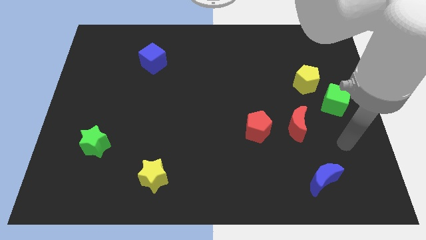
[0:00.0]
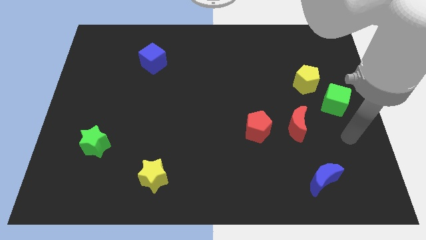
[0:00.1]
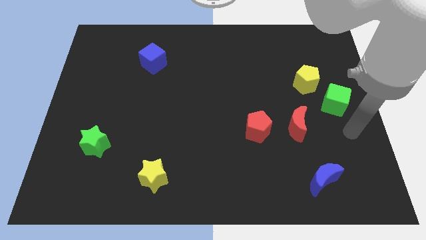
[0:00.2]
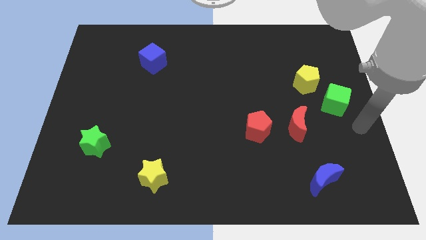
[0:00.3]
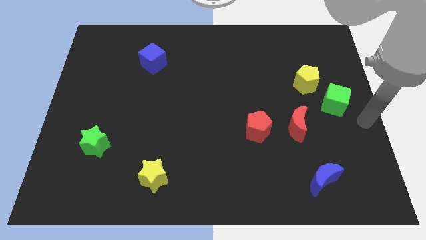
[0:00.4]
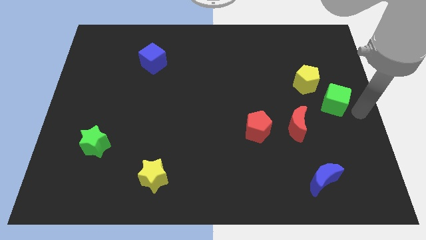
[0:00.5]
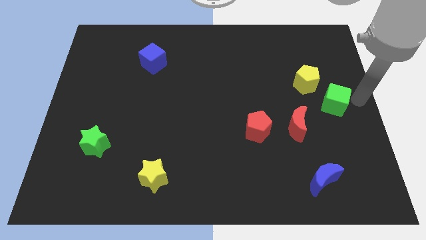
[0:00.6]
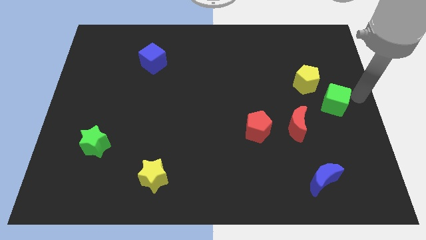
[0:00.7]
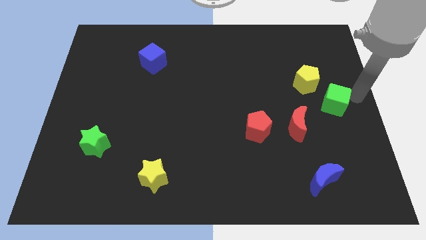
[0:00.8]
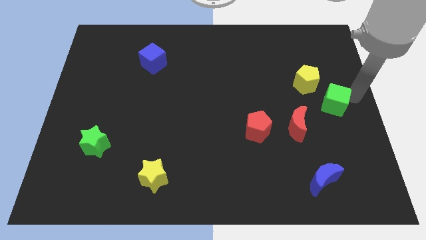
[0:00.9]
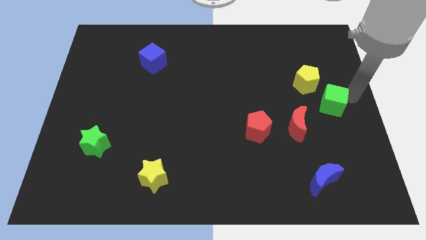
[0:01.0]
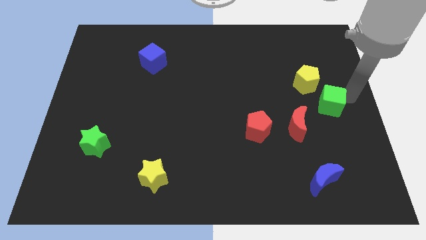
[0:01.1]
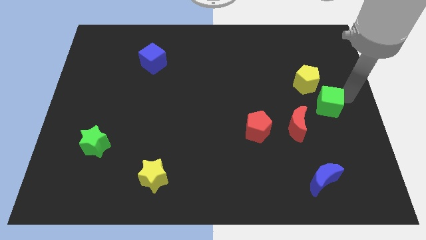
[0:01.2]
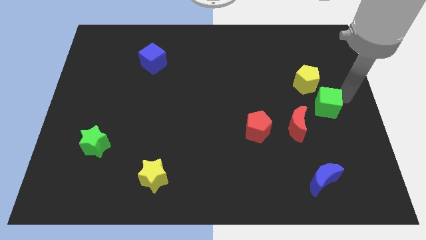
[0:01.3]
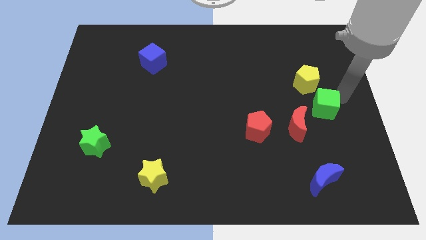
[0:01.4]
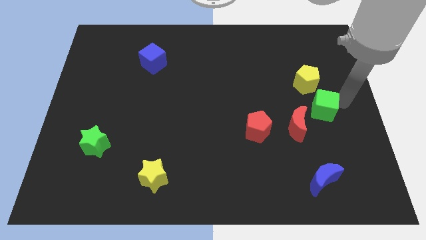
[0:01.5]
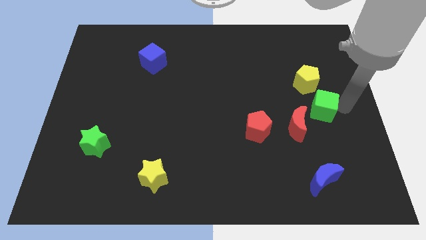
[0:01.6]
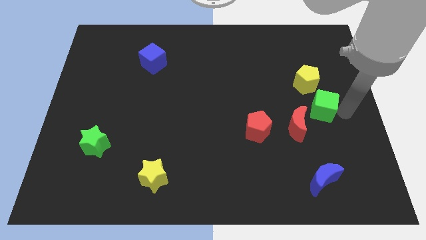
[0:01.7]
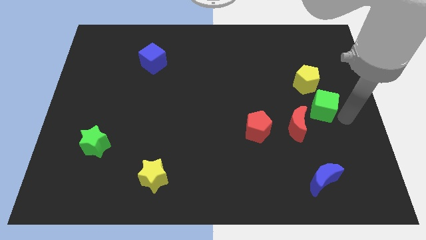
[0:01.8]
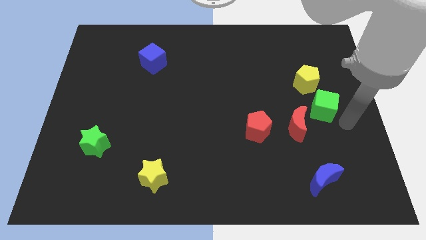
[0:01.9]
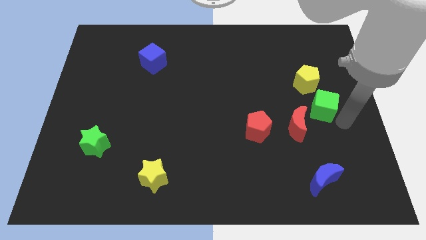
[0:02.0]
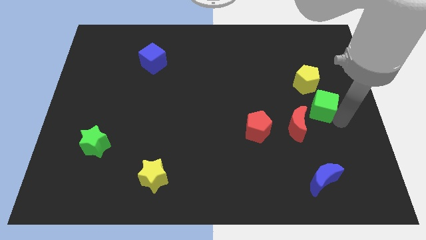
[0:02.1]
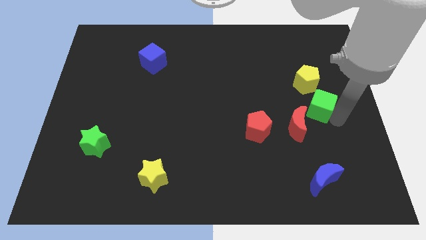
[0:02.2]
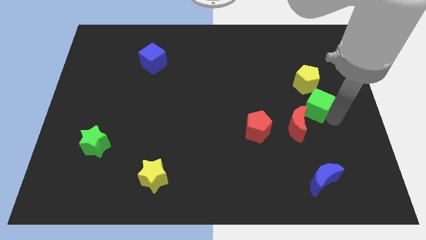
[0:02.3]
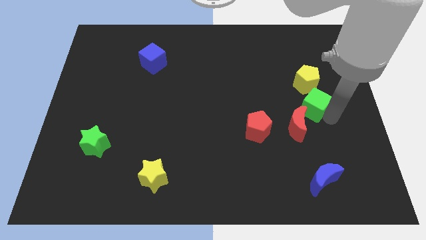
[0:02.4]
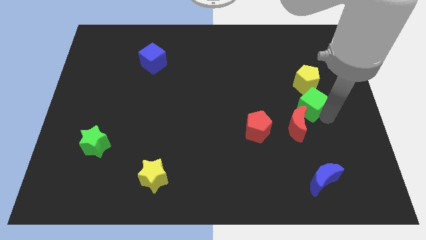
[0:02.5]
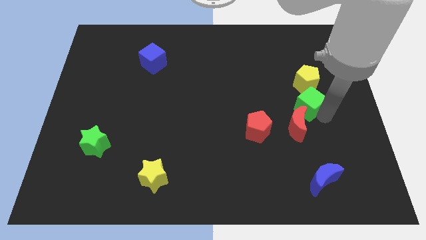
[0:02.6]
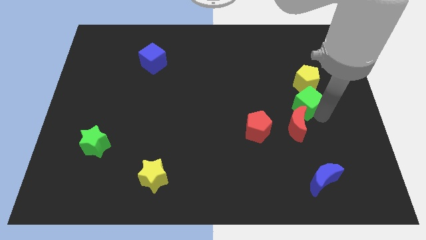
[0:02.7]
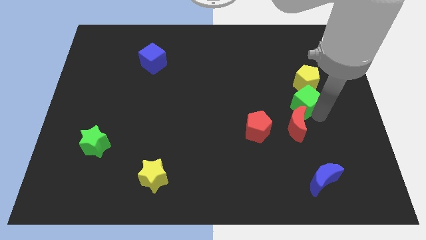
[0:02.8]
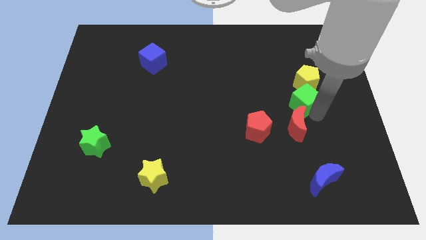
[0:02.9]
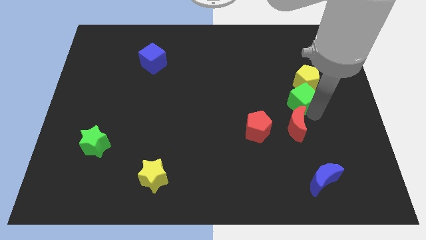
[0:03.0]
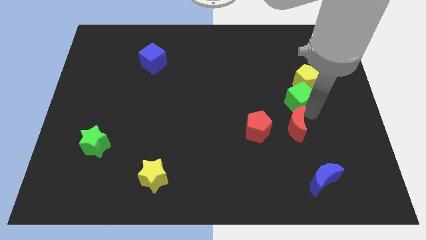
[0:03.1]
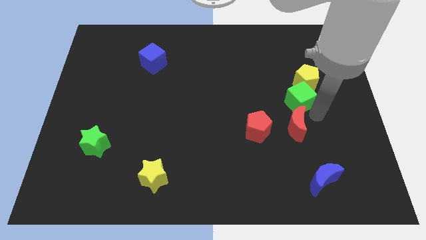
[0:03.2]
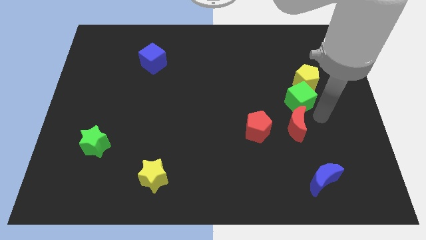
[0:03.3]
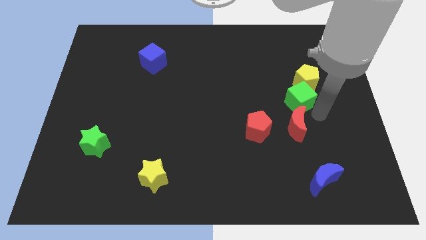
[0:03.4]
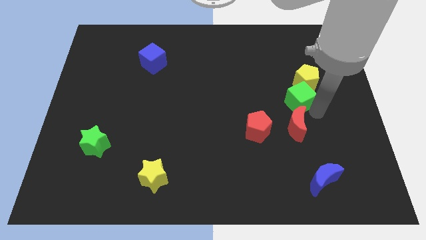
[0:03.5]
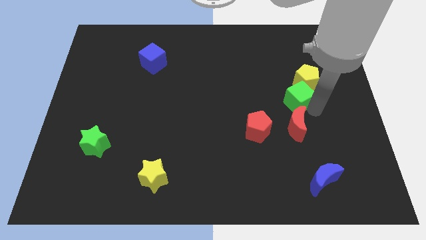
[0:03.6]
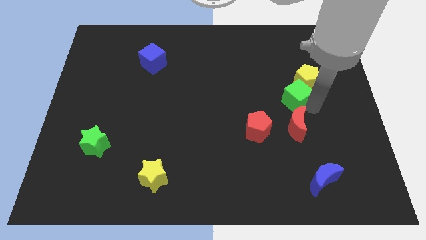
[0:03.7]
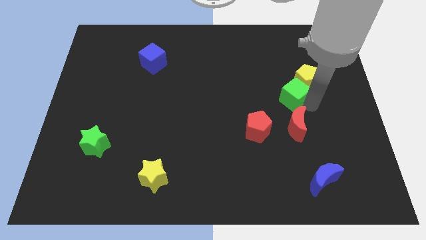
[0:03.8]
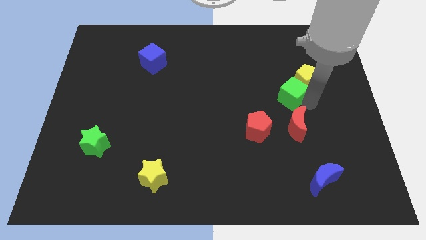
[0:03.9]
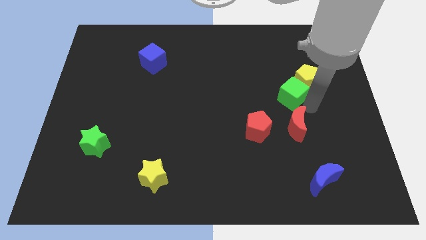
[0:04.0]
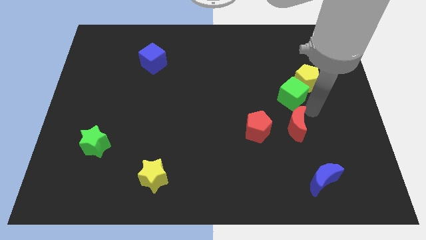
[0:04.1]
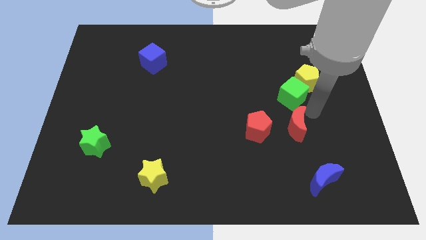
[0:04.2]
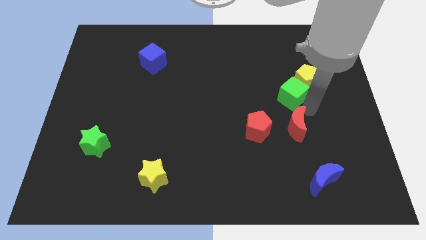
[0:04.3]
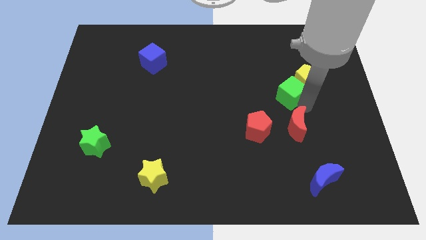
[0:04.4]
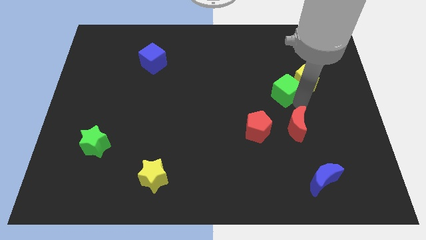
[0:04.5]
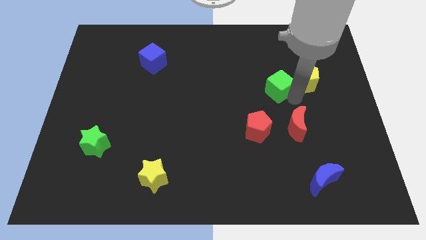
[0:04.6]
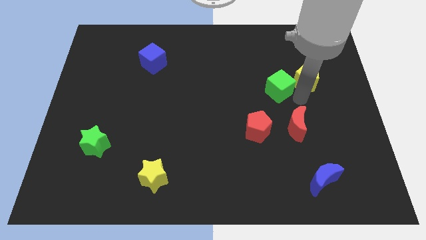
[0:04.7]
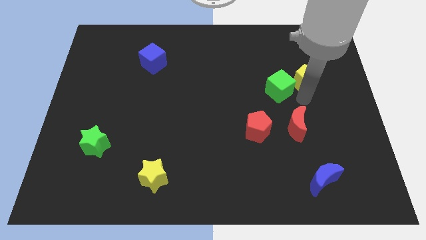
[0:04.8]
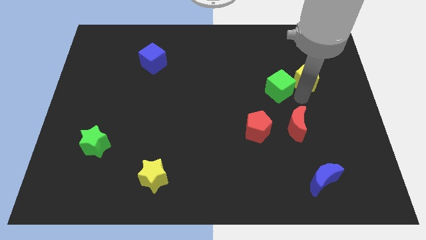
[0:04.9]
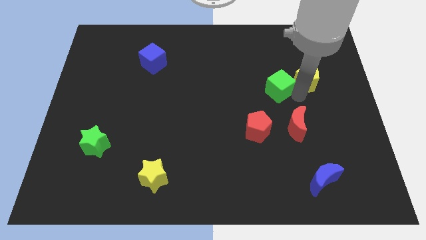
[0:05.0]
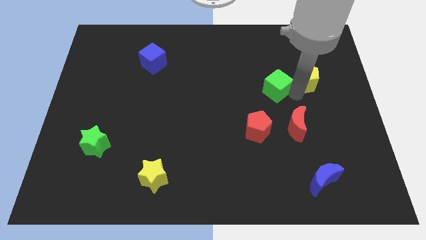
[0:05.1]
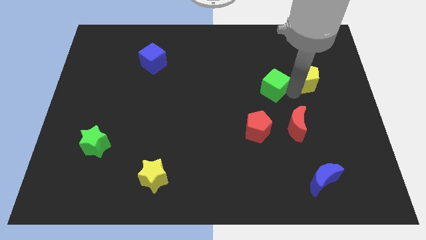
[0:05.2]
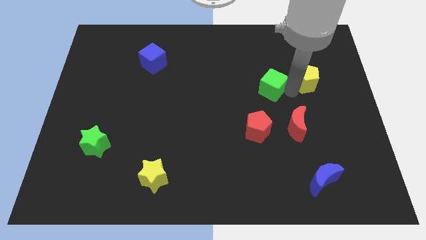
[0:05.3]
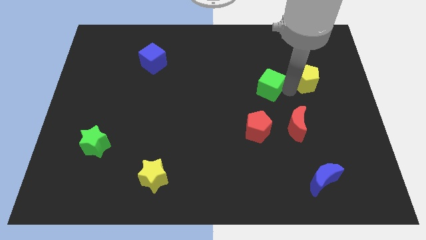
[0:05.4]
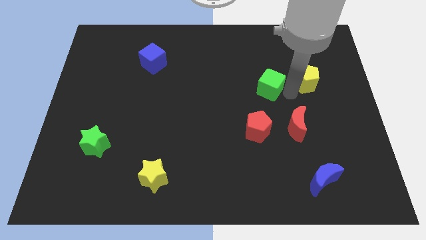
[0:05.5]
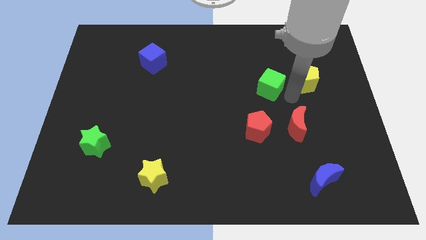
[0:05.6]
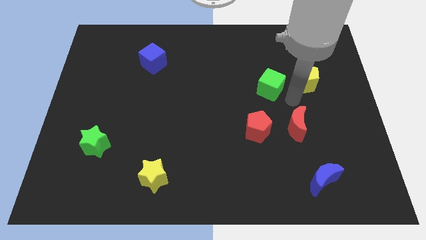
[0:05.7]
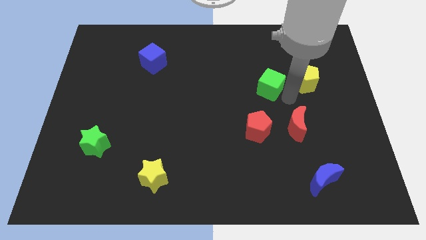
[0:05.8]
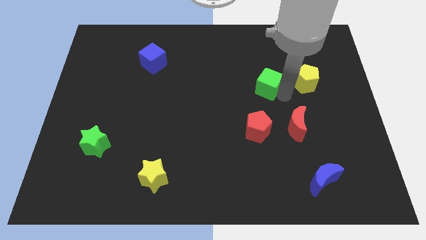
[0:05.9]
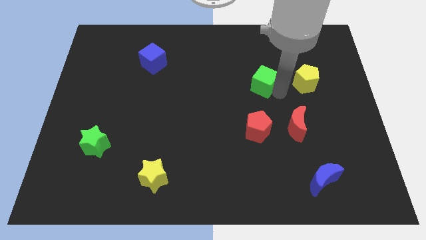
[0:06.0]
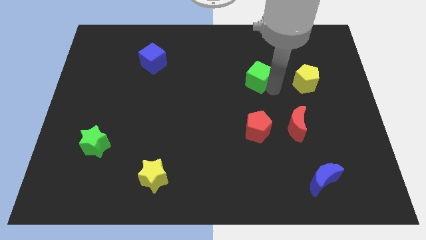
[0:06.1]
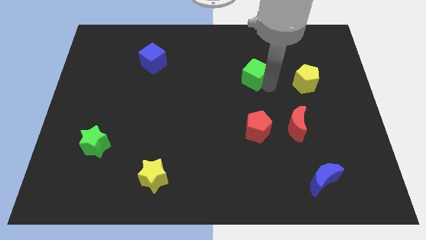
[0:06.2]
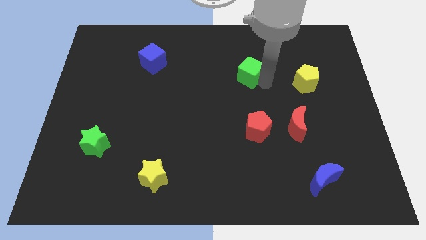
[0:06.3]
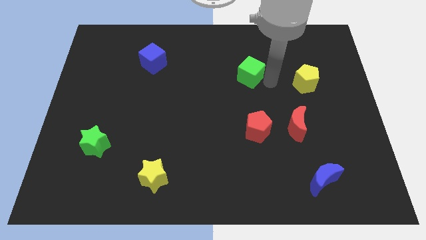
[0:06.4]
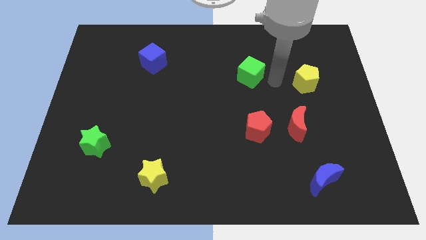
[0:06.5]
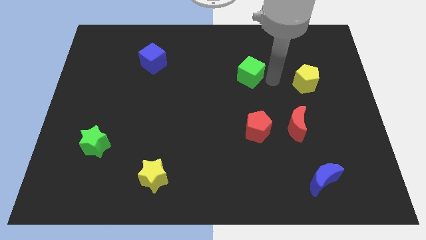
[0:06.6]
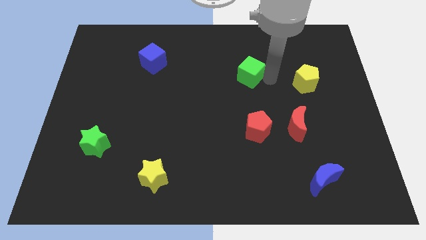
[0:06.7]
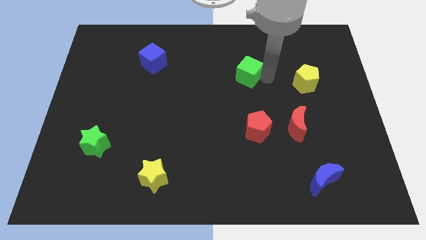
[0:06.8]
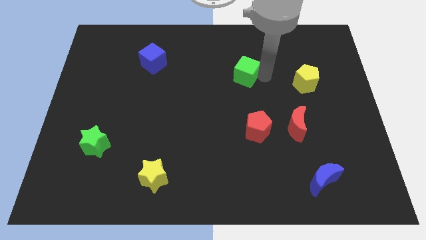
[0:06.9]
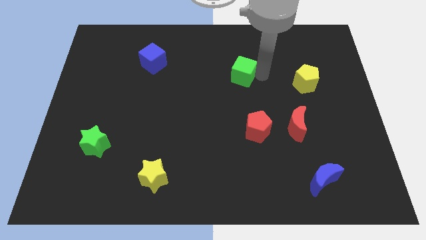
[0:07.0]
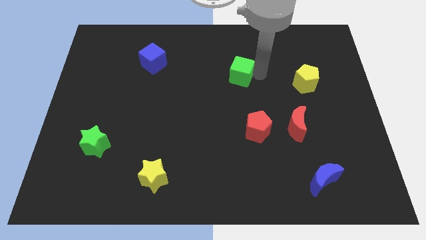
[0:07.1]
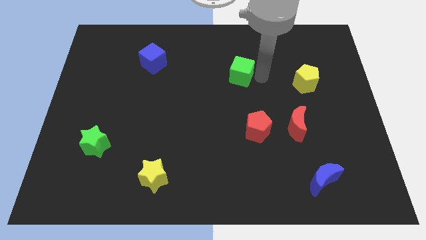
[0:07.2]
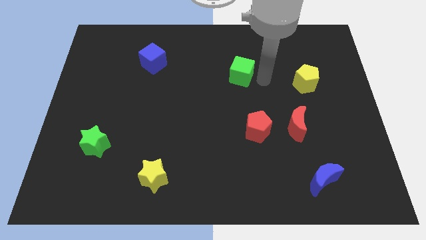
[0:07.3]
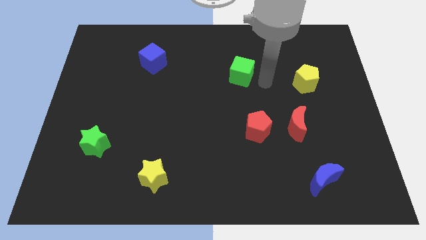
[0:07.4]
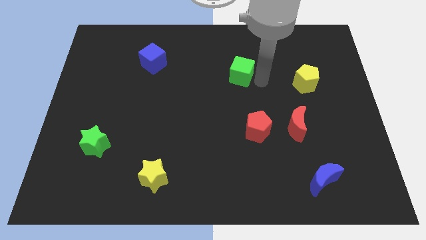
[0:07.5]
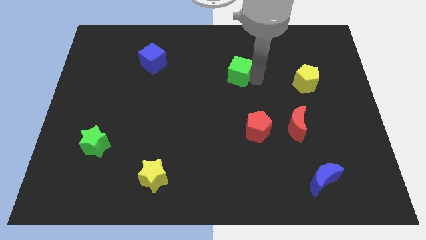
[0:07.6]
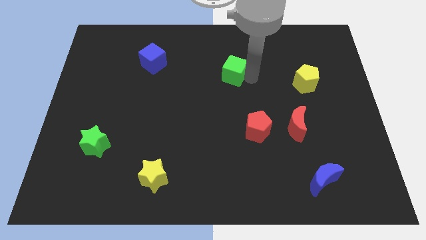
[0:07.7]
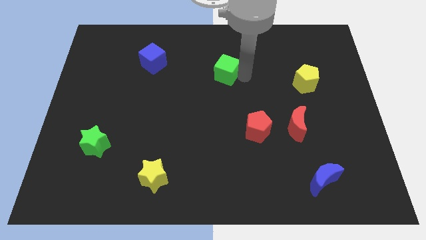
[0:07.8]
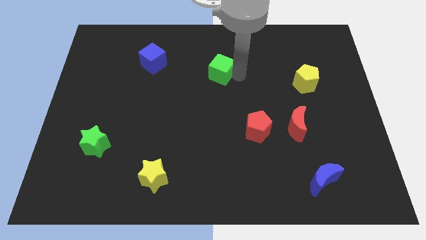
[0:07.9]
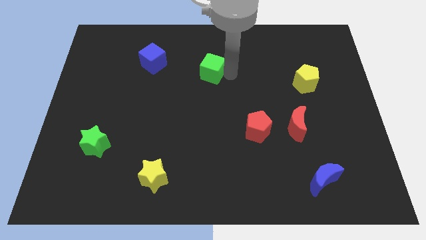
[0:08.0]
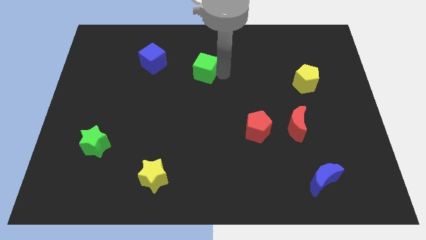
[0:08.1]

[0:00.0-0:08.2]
put the green cube to the right side of the blue cube
